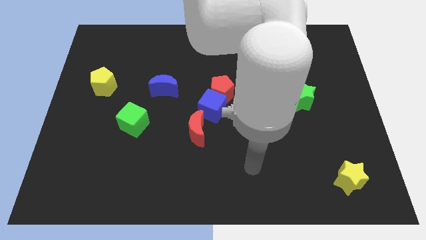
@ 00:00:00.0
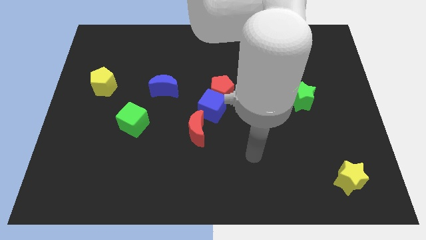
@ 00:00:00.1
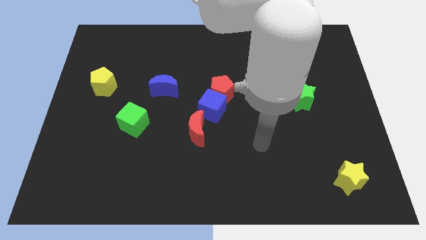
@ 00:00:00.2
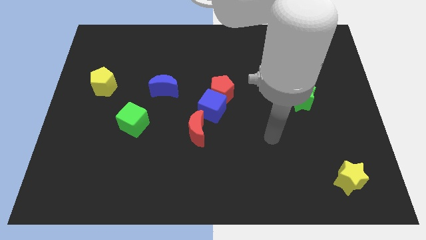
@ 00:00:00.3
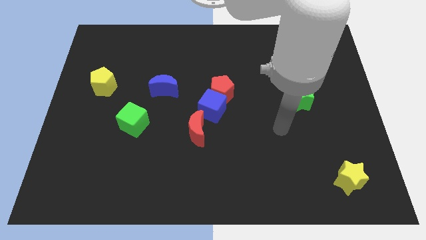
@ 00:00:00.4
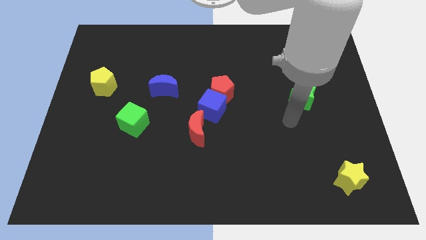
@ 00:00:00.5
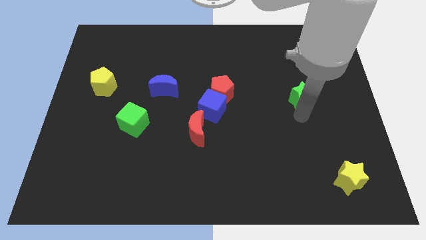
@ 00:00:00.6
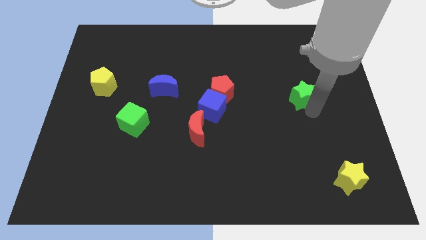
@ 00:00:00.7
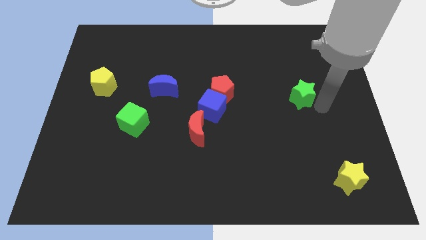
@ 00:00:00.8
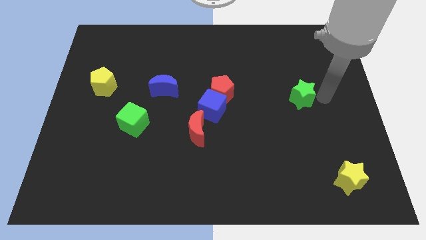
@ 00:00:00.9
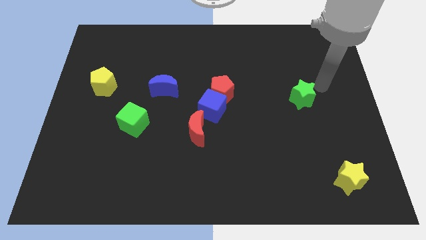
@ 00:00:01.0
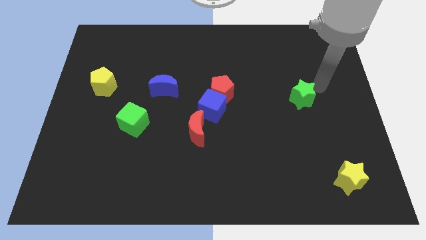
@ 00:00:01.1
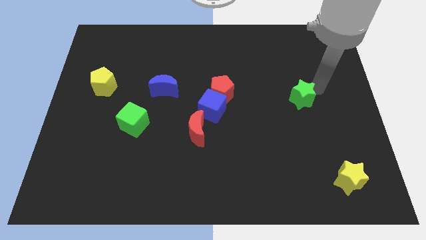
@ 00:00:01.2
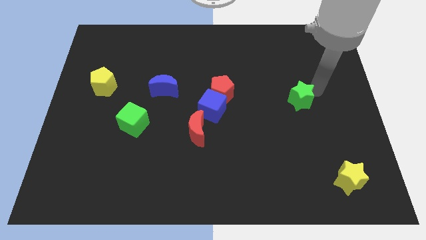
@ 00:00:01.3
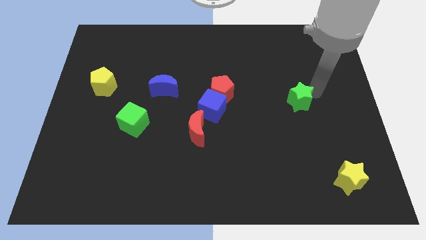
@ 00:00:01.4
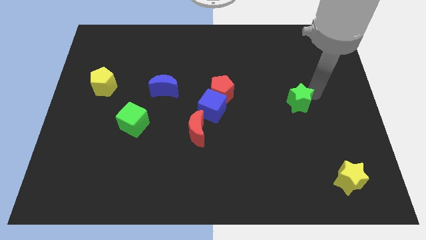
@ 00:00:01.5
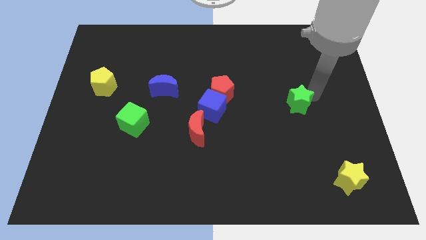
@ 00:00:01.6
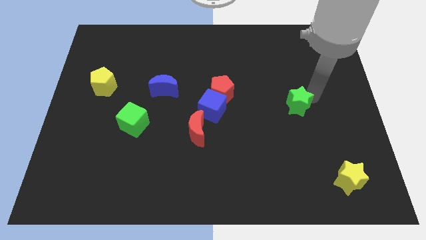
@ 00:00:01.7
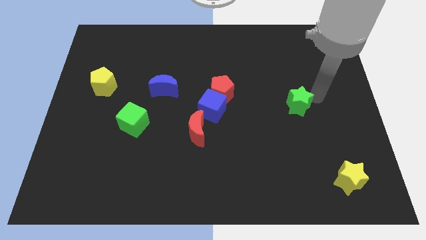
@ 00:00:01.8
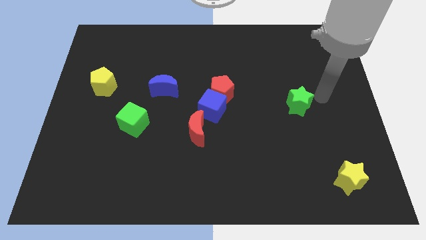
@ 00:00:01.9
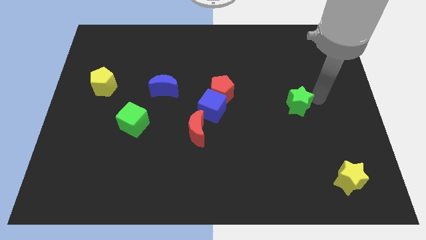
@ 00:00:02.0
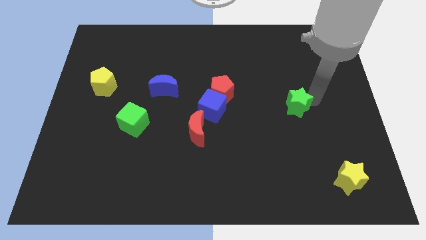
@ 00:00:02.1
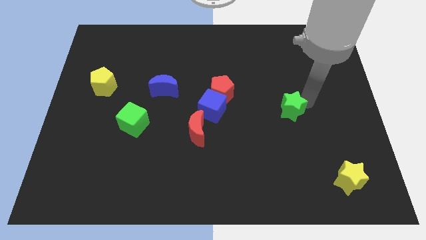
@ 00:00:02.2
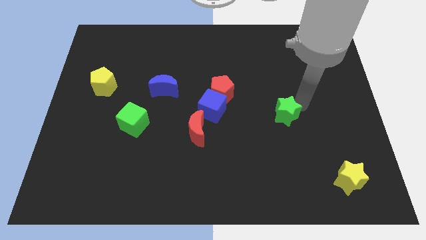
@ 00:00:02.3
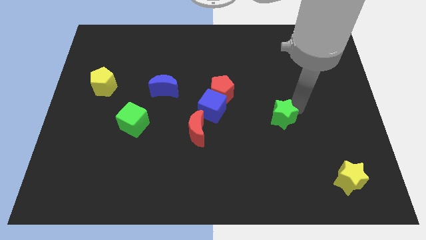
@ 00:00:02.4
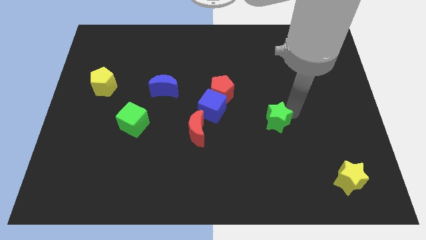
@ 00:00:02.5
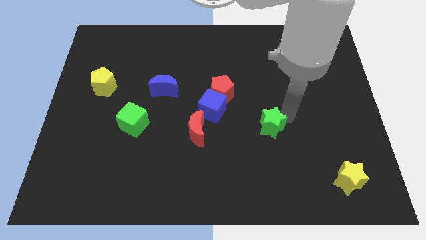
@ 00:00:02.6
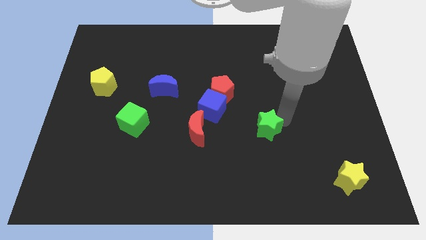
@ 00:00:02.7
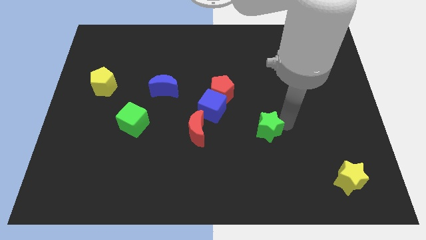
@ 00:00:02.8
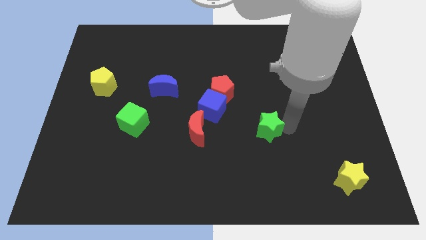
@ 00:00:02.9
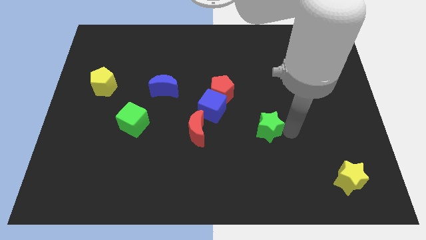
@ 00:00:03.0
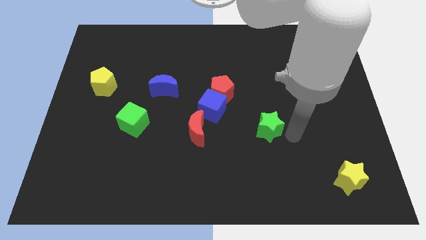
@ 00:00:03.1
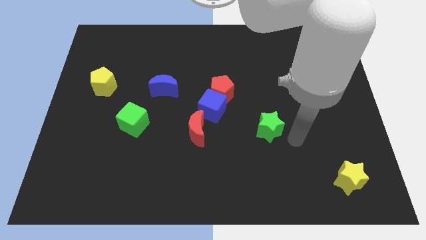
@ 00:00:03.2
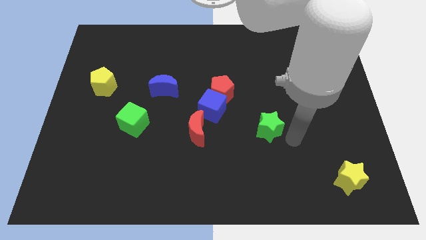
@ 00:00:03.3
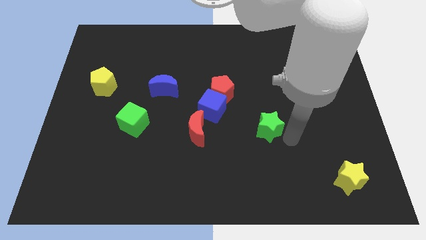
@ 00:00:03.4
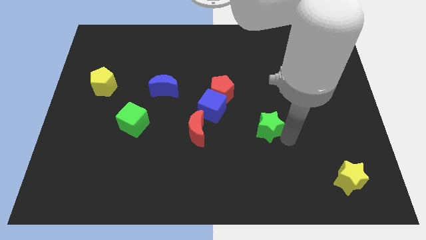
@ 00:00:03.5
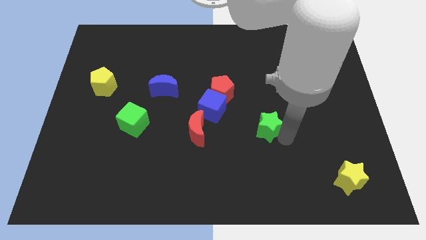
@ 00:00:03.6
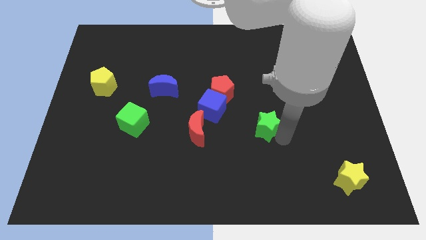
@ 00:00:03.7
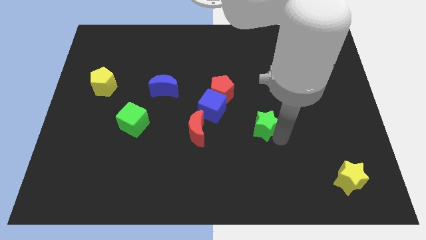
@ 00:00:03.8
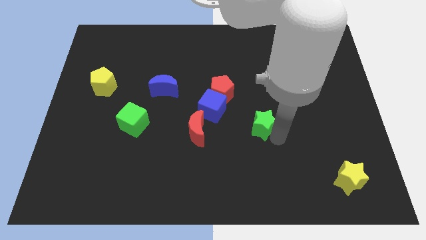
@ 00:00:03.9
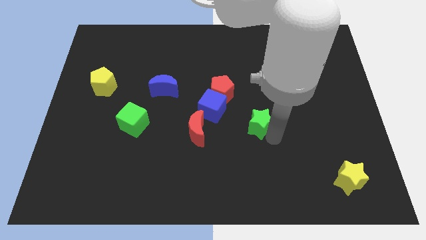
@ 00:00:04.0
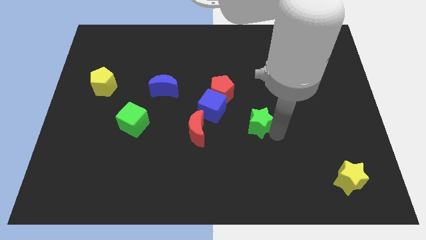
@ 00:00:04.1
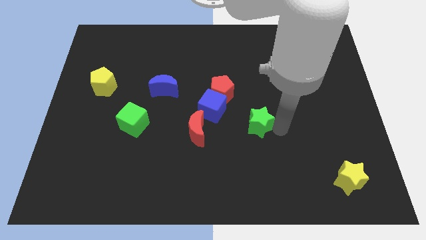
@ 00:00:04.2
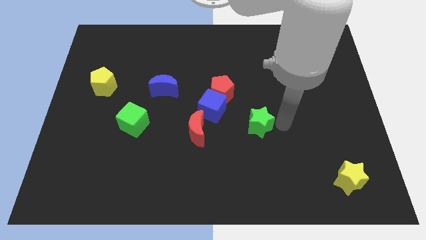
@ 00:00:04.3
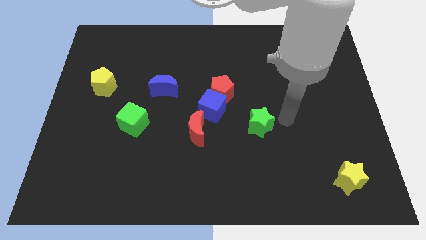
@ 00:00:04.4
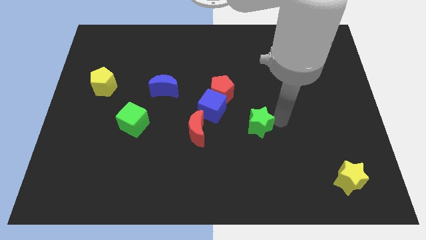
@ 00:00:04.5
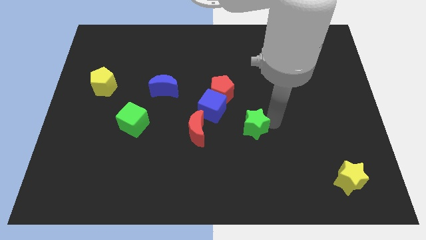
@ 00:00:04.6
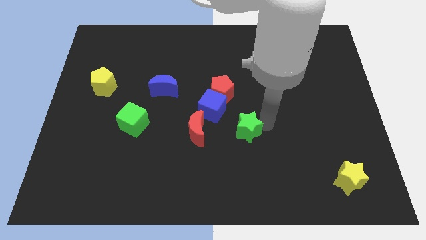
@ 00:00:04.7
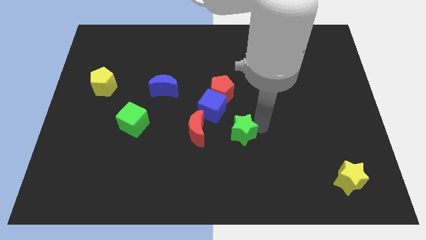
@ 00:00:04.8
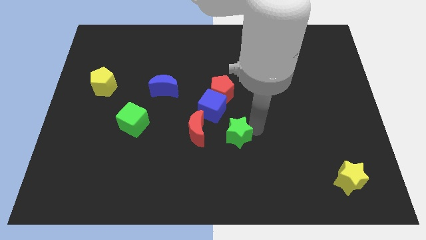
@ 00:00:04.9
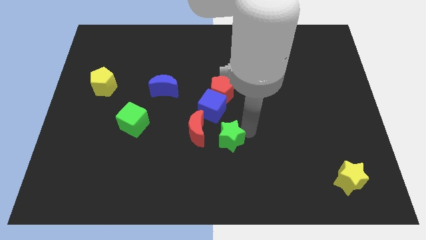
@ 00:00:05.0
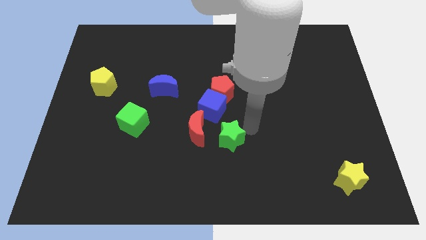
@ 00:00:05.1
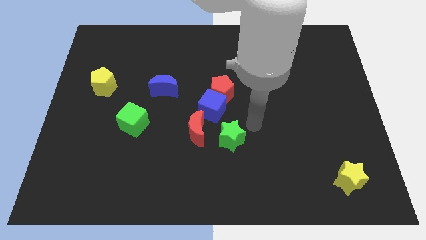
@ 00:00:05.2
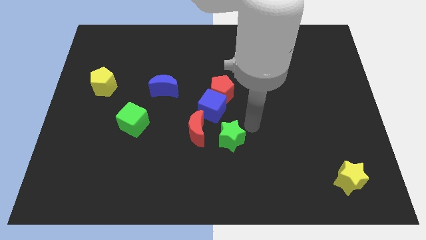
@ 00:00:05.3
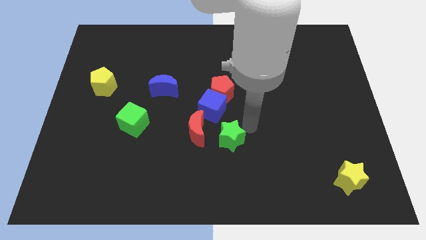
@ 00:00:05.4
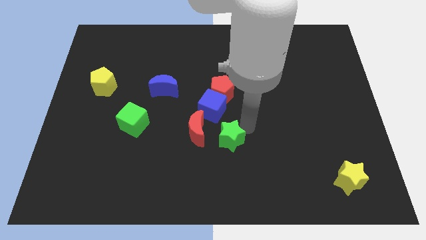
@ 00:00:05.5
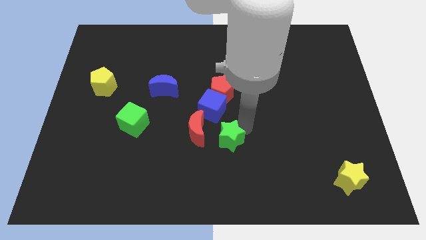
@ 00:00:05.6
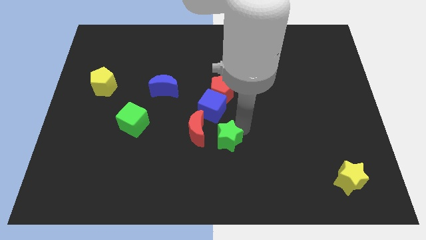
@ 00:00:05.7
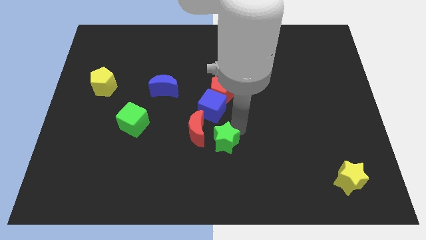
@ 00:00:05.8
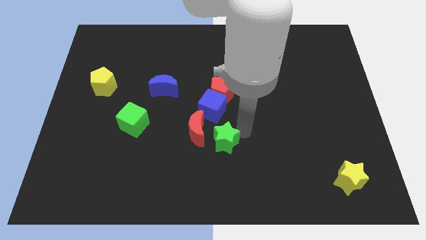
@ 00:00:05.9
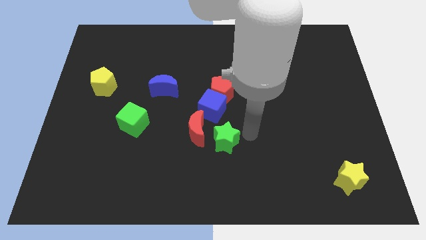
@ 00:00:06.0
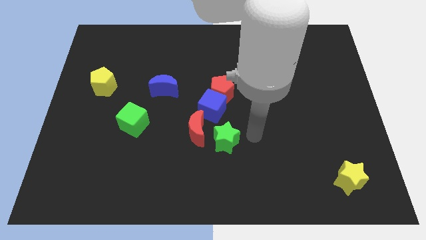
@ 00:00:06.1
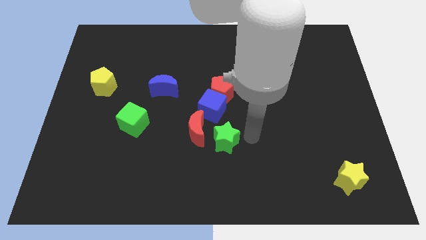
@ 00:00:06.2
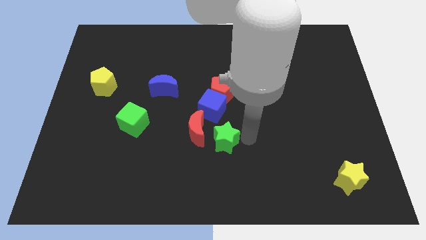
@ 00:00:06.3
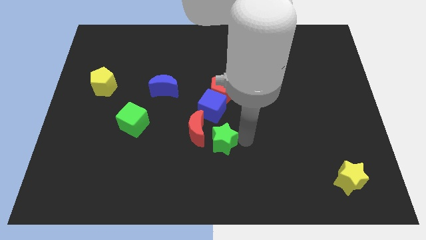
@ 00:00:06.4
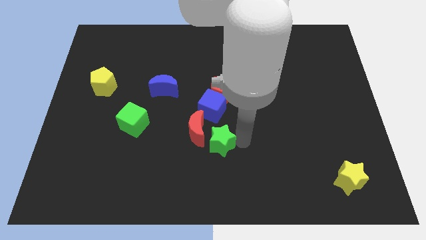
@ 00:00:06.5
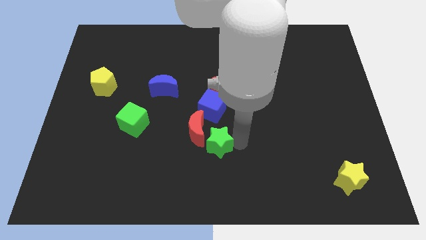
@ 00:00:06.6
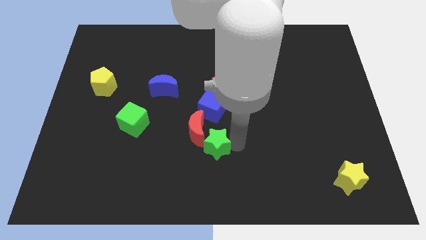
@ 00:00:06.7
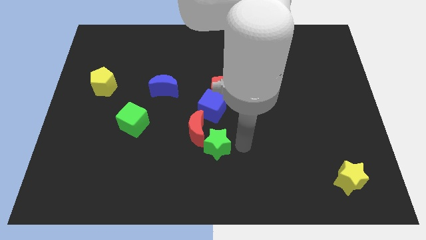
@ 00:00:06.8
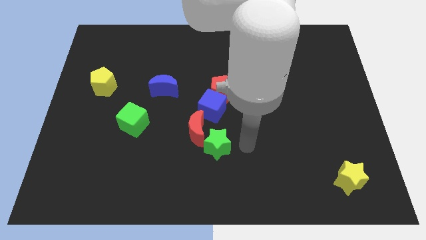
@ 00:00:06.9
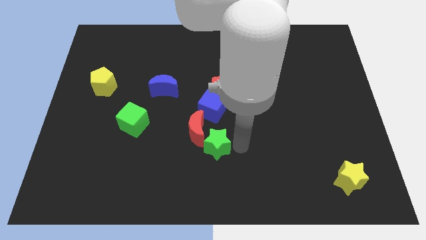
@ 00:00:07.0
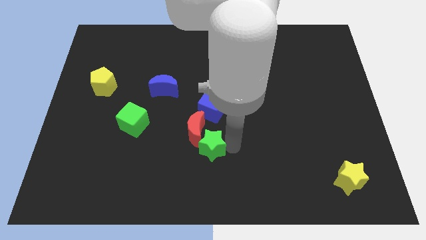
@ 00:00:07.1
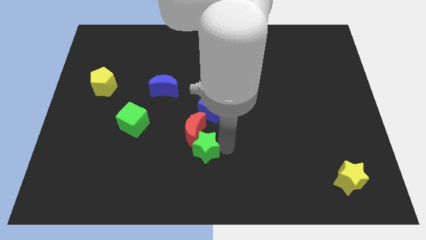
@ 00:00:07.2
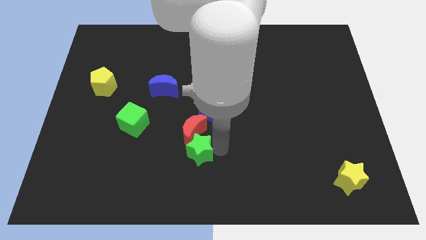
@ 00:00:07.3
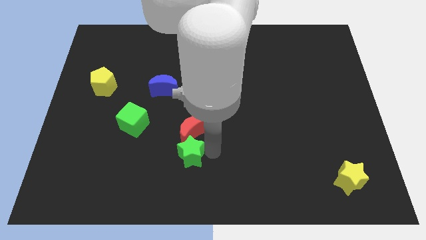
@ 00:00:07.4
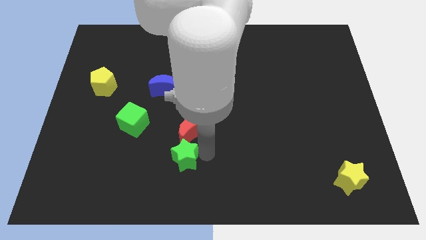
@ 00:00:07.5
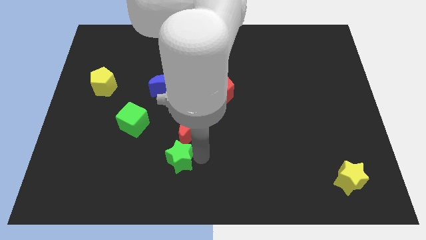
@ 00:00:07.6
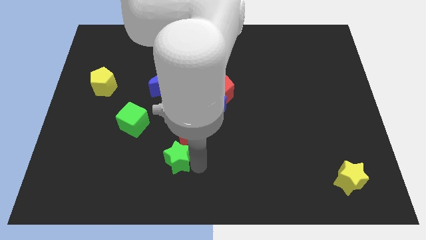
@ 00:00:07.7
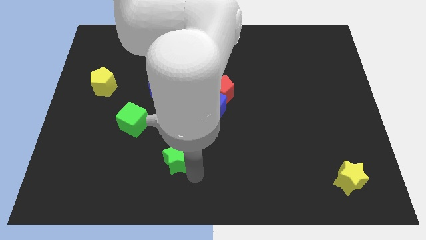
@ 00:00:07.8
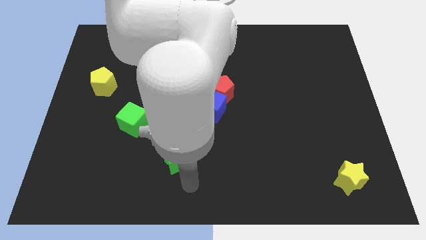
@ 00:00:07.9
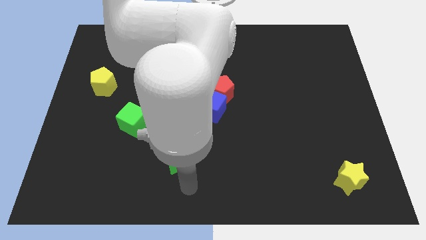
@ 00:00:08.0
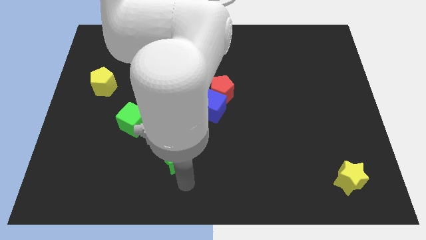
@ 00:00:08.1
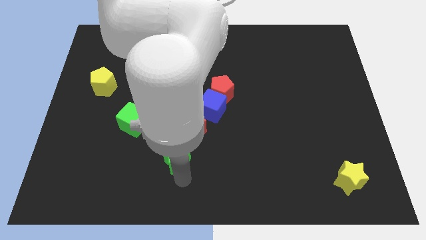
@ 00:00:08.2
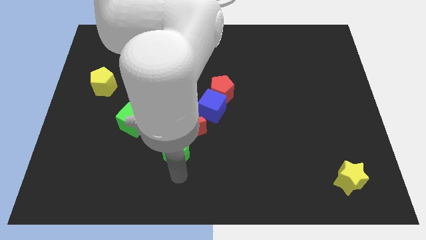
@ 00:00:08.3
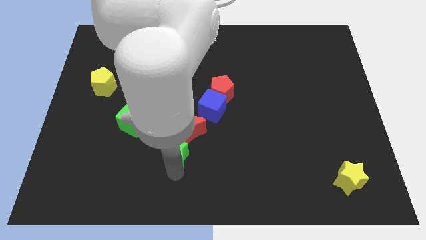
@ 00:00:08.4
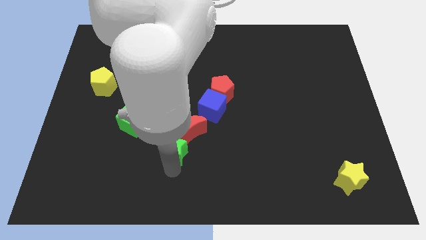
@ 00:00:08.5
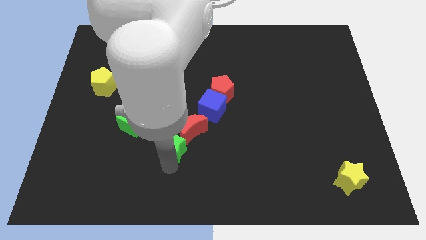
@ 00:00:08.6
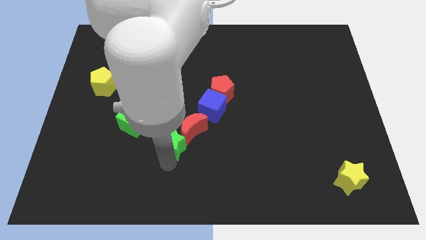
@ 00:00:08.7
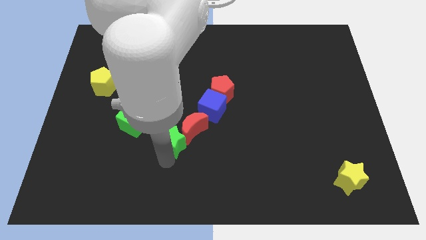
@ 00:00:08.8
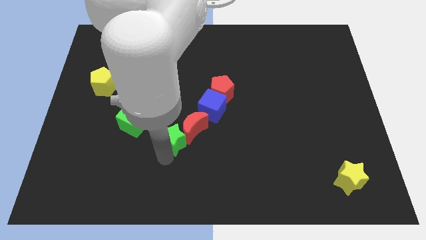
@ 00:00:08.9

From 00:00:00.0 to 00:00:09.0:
push the green star to the bottom of the blue moon
